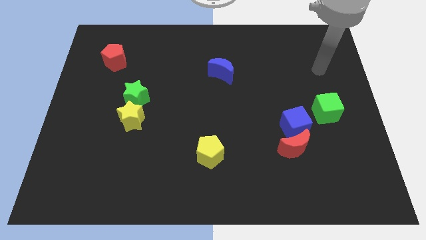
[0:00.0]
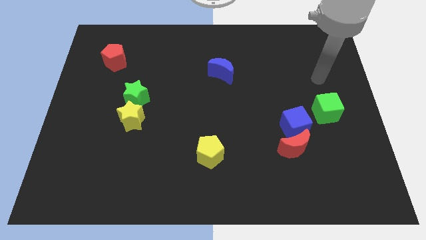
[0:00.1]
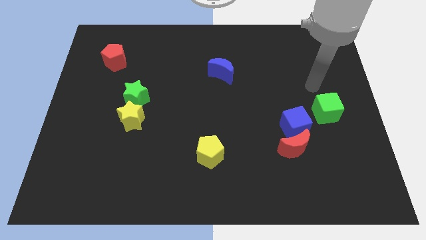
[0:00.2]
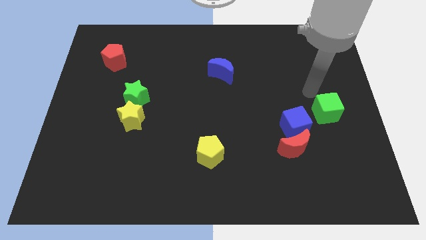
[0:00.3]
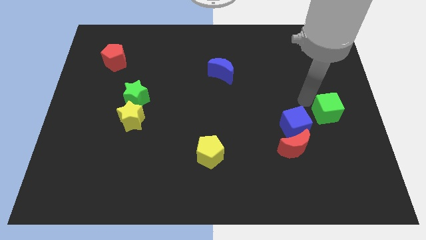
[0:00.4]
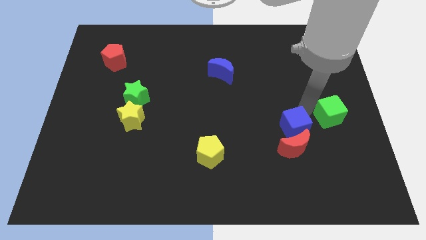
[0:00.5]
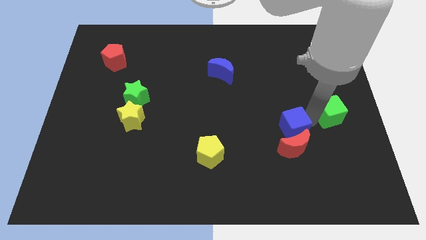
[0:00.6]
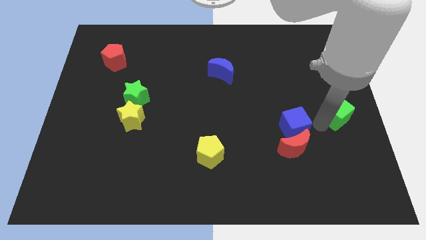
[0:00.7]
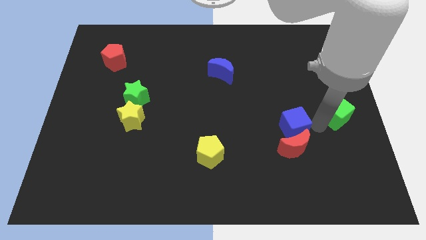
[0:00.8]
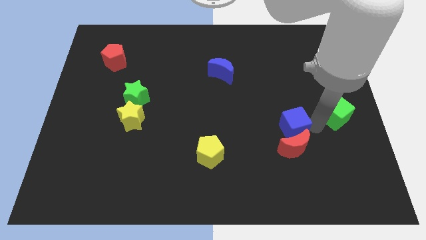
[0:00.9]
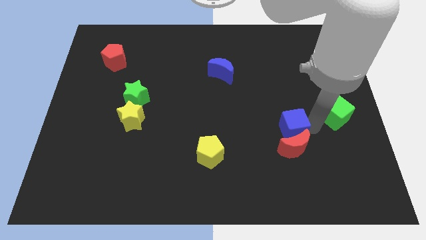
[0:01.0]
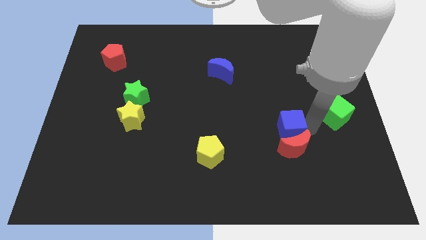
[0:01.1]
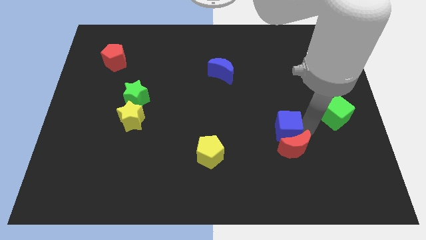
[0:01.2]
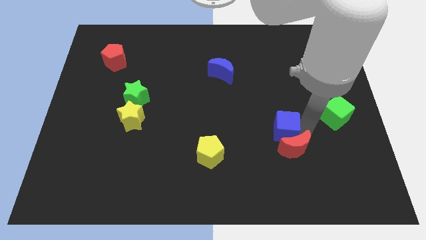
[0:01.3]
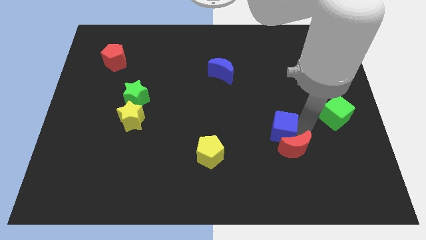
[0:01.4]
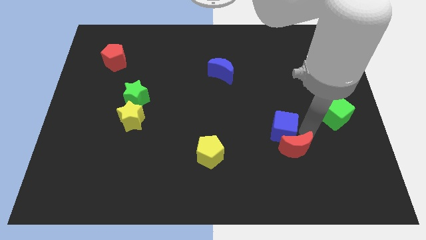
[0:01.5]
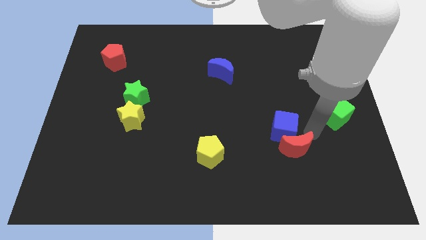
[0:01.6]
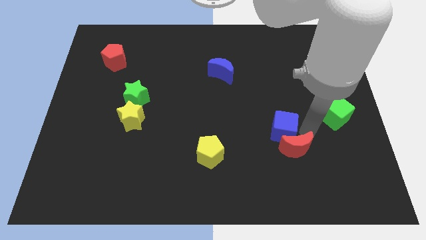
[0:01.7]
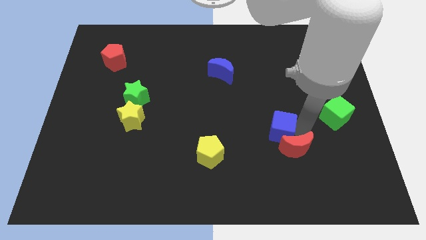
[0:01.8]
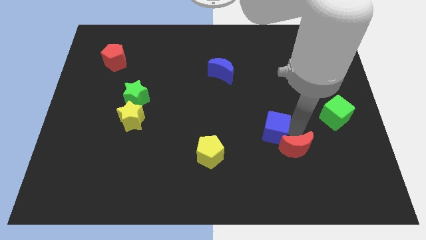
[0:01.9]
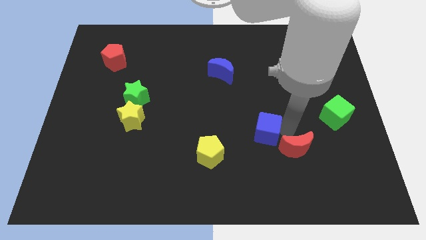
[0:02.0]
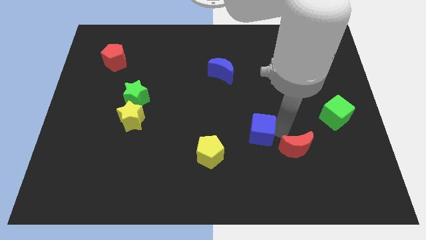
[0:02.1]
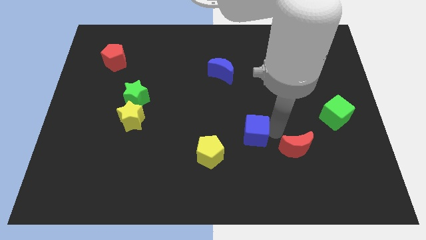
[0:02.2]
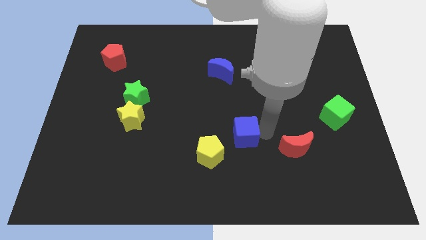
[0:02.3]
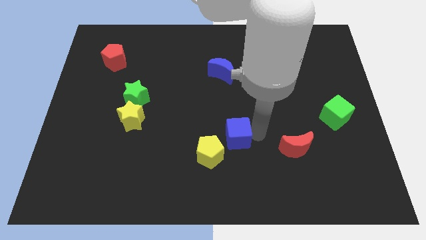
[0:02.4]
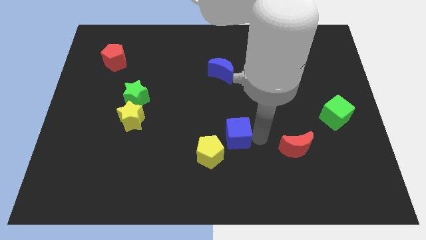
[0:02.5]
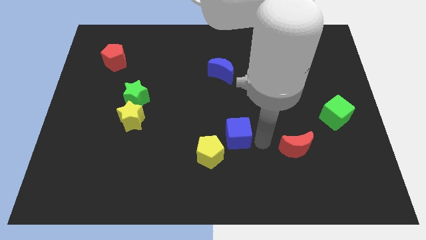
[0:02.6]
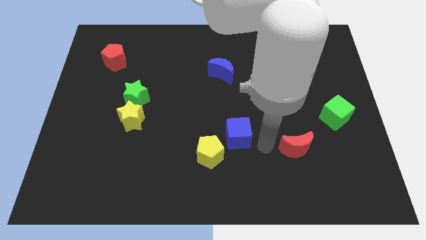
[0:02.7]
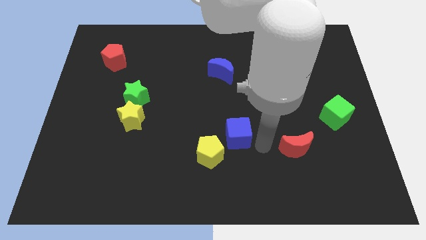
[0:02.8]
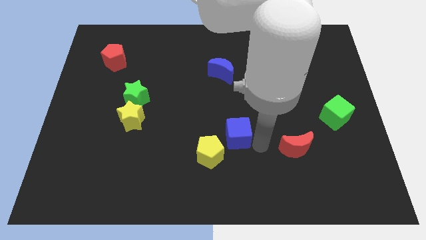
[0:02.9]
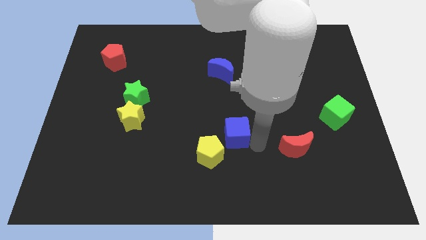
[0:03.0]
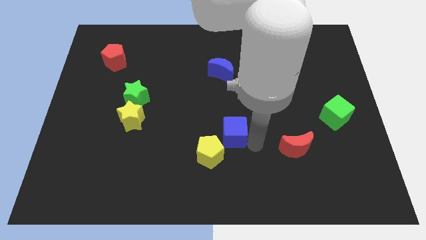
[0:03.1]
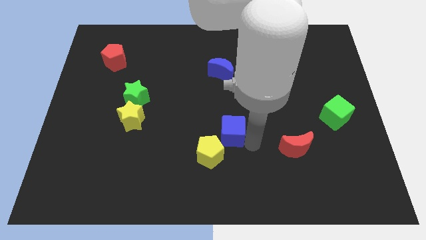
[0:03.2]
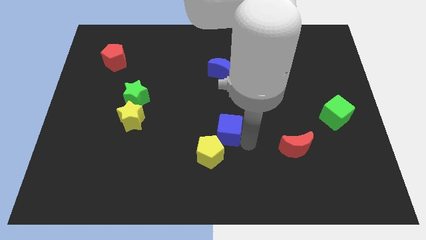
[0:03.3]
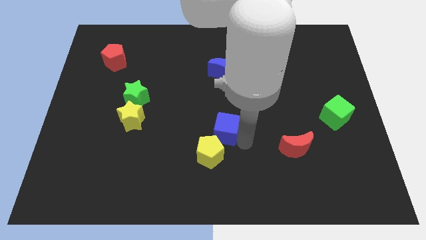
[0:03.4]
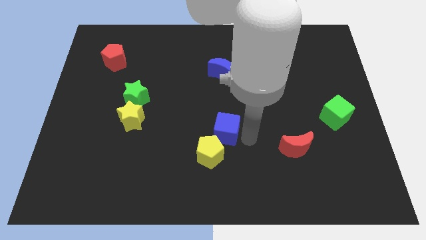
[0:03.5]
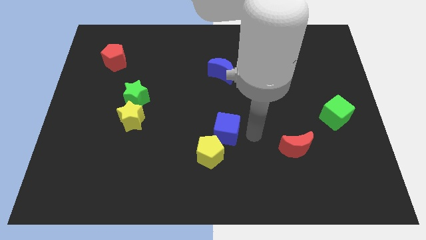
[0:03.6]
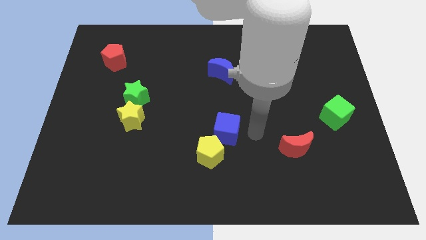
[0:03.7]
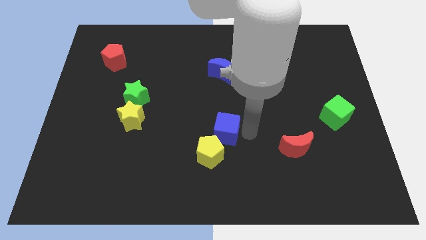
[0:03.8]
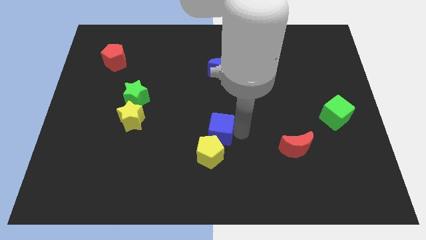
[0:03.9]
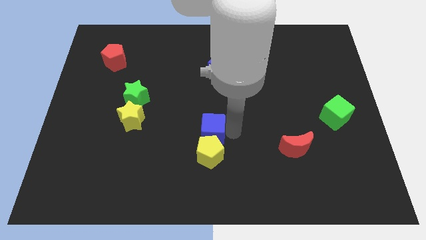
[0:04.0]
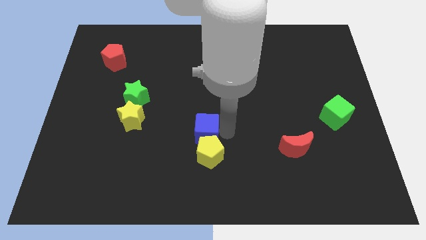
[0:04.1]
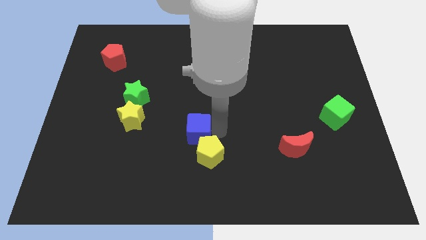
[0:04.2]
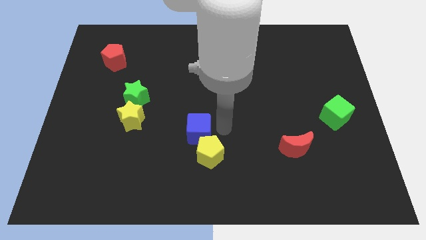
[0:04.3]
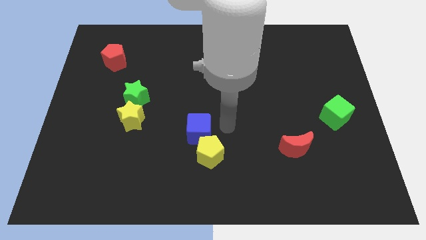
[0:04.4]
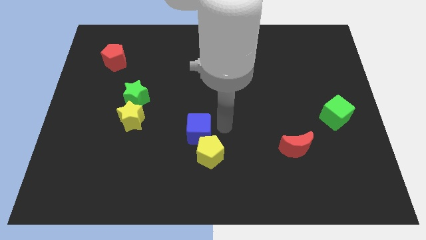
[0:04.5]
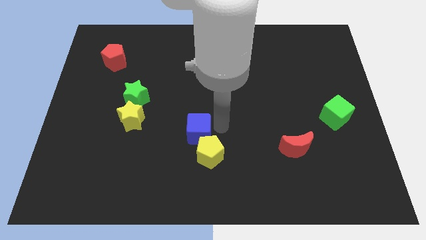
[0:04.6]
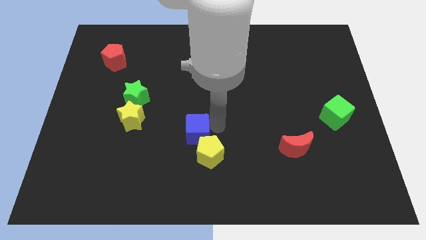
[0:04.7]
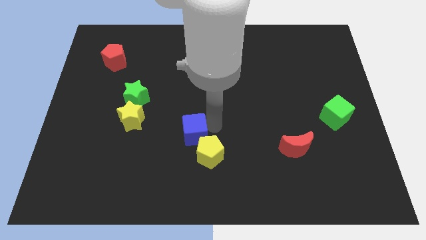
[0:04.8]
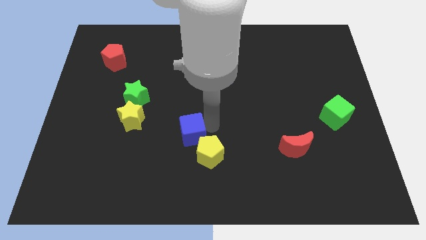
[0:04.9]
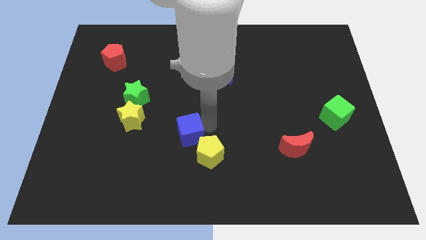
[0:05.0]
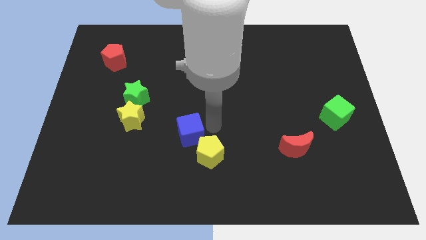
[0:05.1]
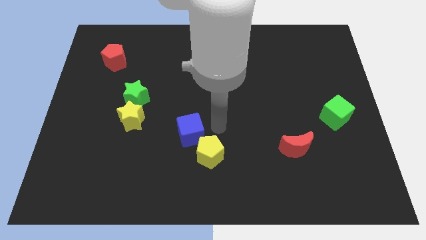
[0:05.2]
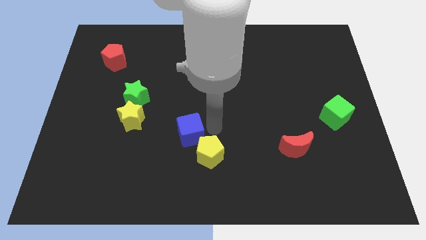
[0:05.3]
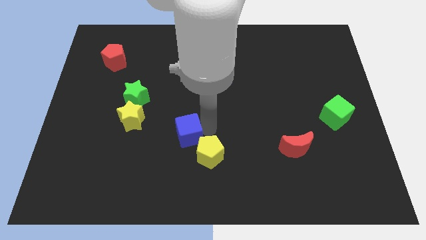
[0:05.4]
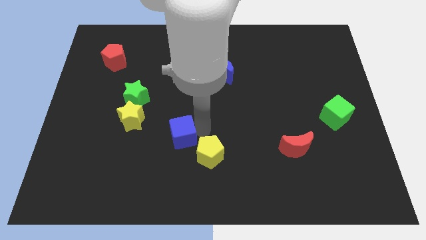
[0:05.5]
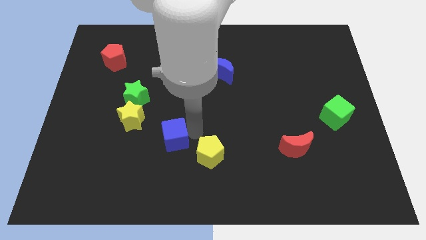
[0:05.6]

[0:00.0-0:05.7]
slide the blue cube to the bottom right side of the yellow star

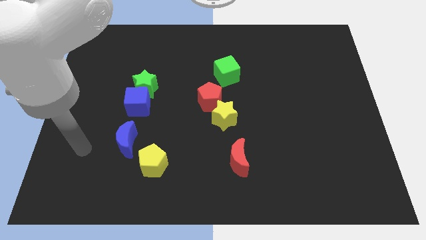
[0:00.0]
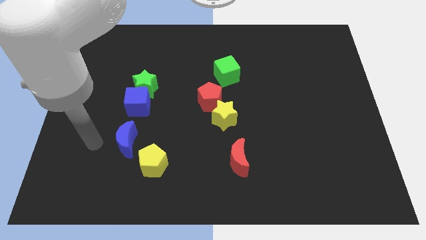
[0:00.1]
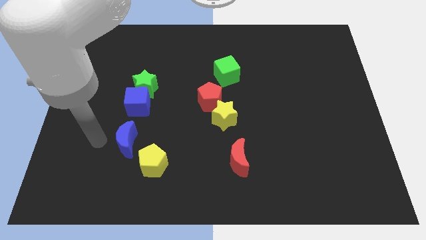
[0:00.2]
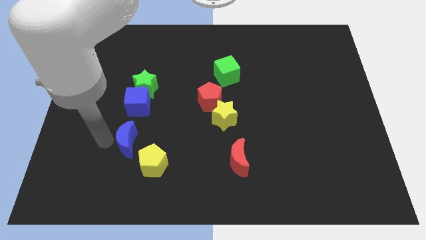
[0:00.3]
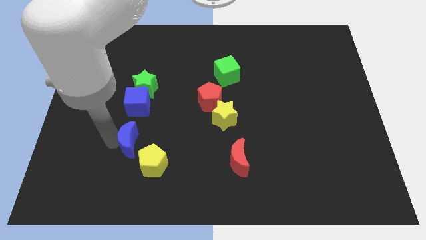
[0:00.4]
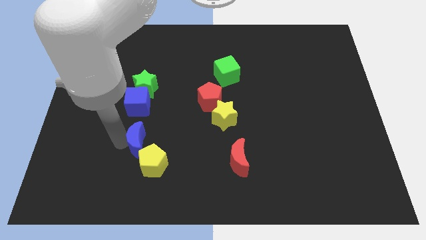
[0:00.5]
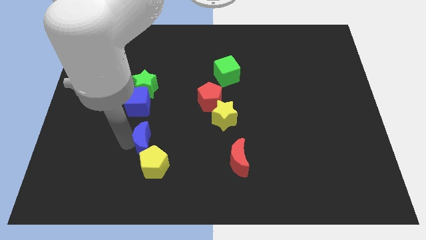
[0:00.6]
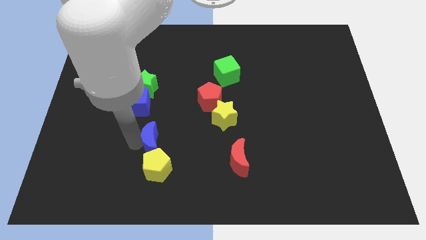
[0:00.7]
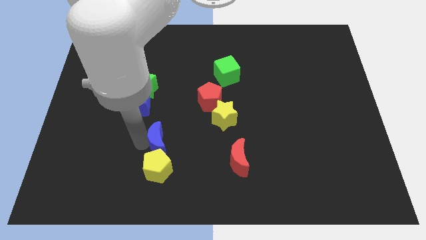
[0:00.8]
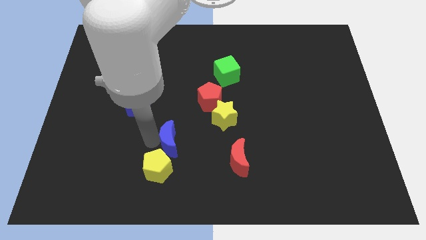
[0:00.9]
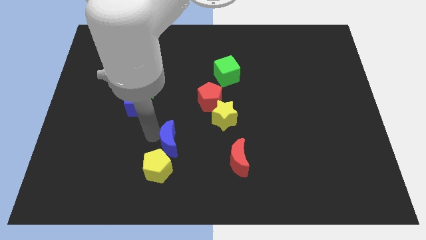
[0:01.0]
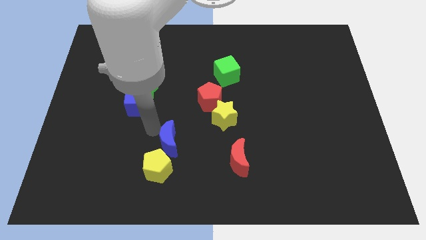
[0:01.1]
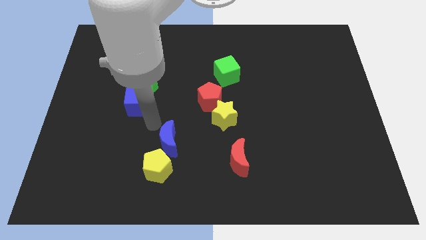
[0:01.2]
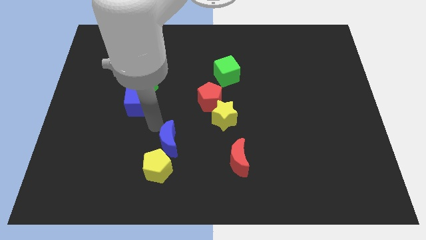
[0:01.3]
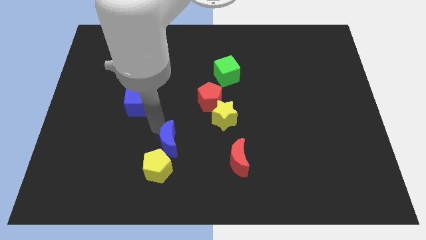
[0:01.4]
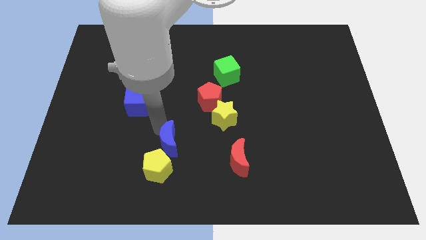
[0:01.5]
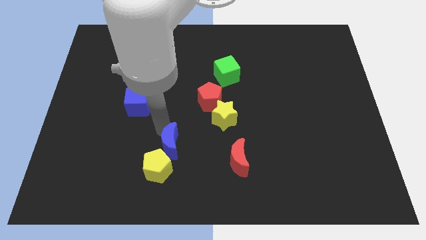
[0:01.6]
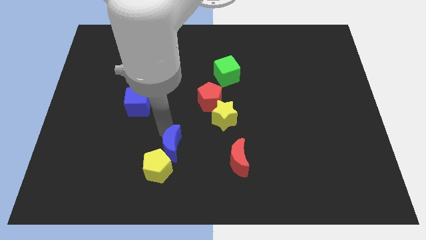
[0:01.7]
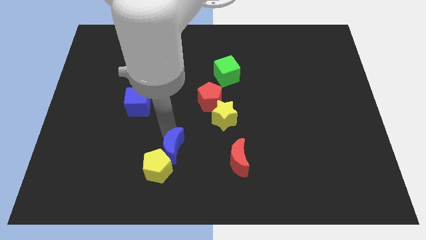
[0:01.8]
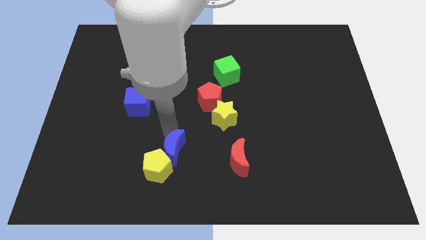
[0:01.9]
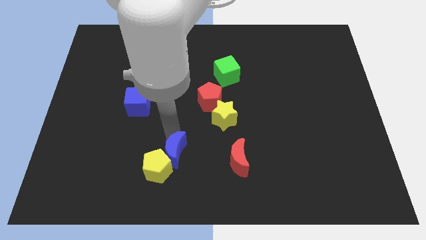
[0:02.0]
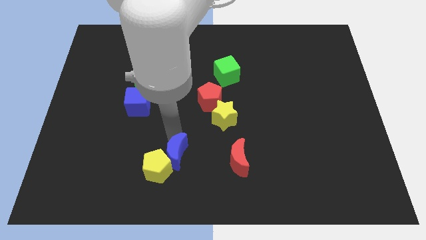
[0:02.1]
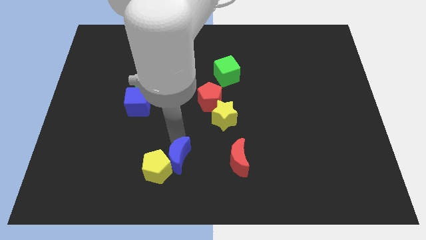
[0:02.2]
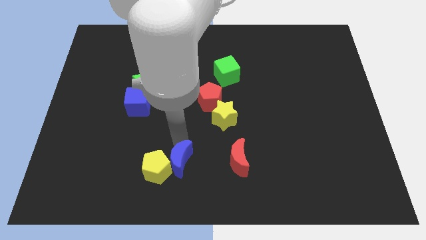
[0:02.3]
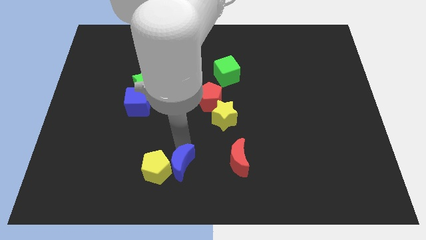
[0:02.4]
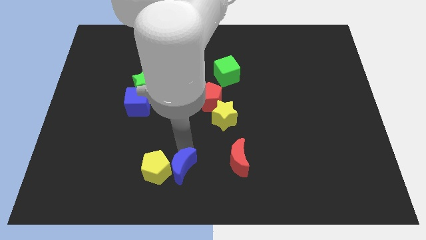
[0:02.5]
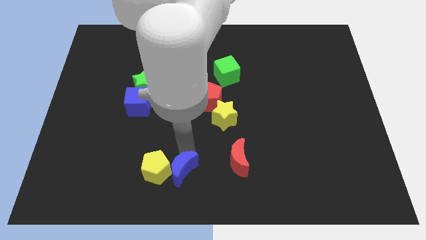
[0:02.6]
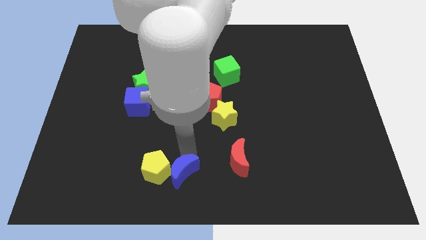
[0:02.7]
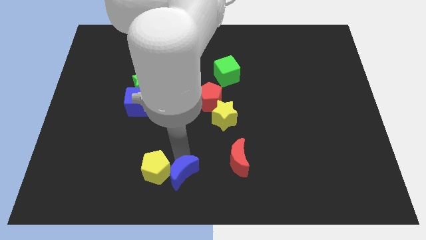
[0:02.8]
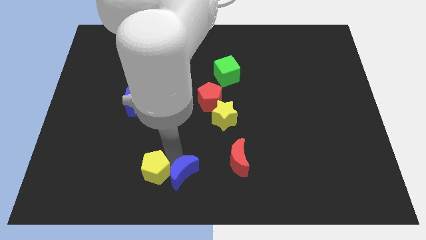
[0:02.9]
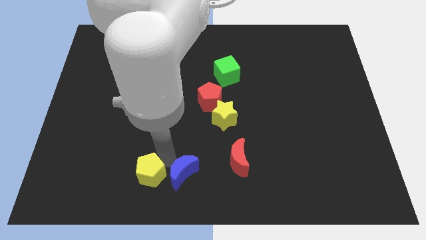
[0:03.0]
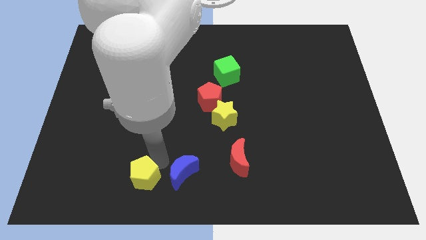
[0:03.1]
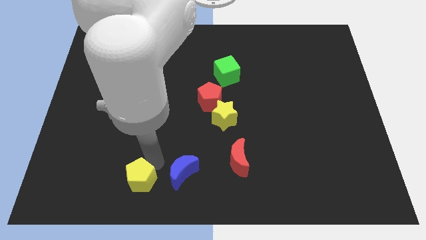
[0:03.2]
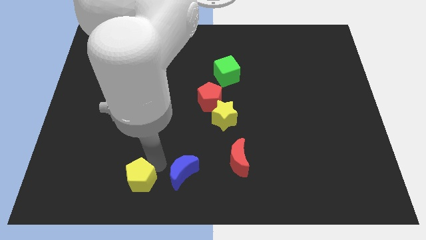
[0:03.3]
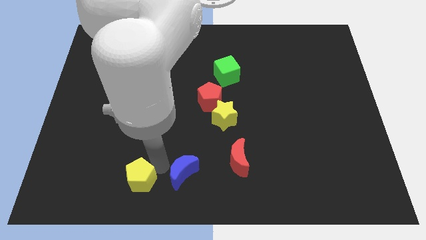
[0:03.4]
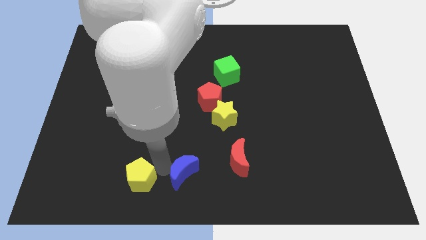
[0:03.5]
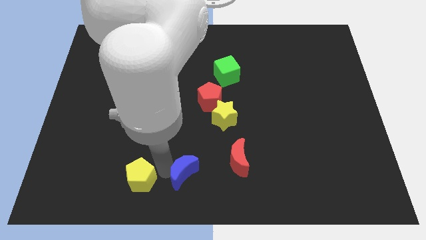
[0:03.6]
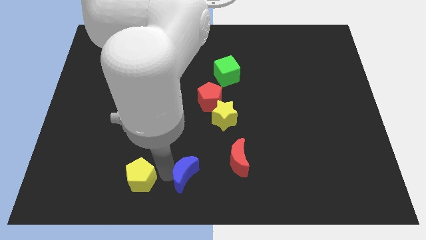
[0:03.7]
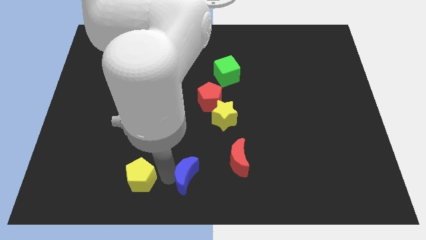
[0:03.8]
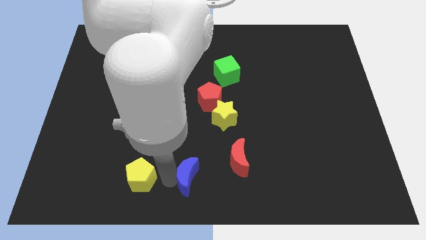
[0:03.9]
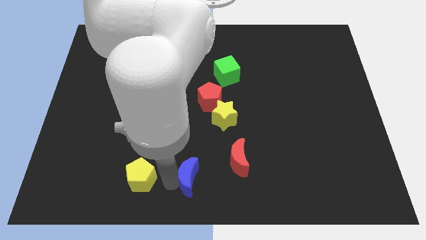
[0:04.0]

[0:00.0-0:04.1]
put the blue moon to the bottom left of the red moon
